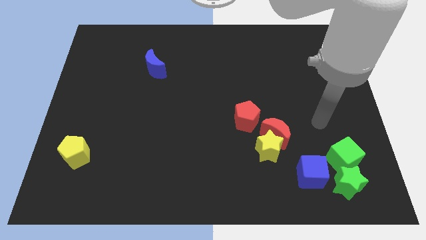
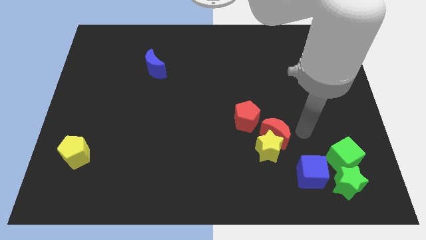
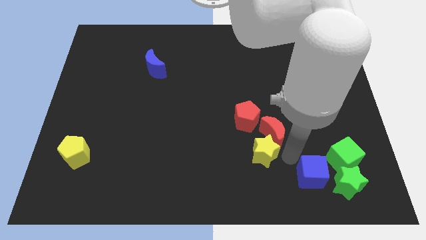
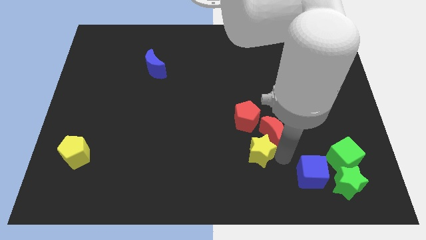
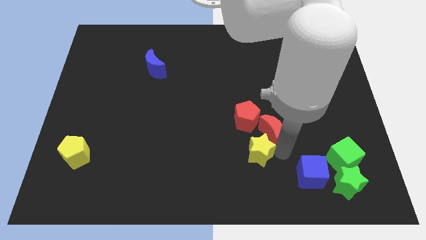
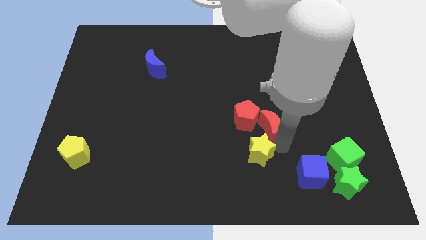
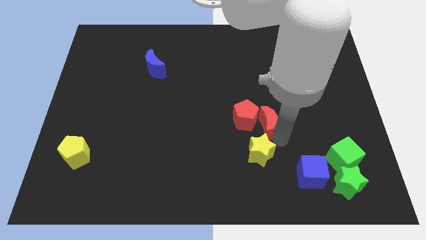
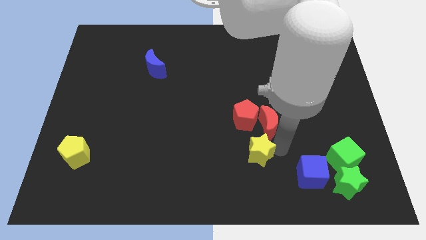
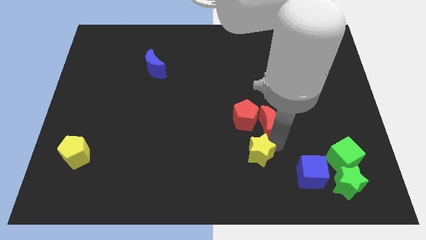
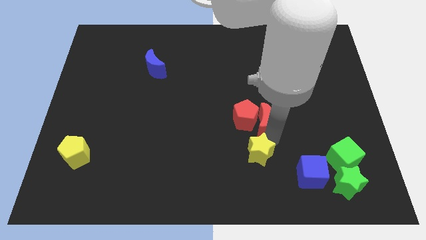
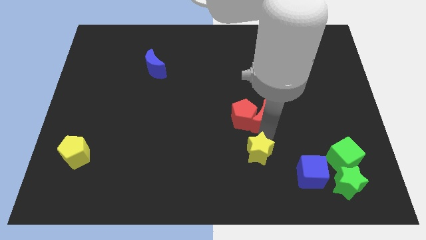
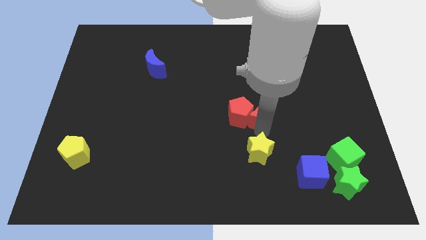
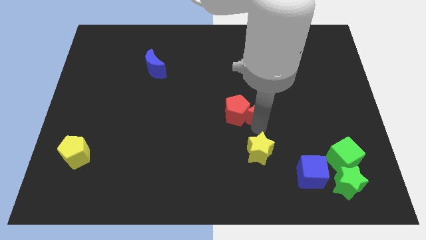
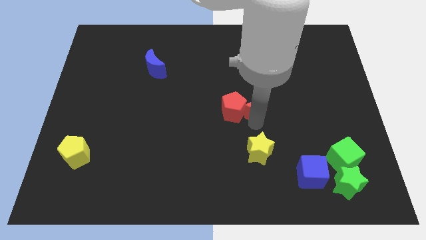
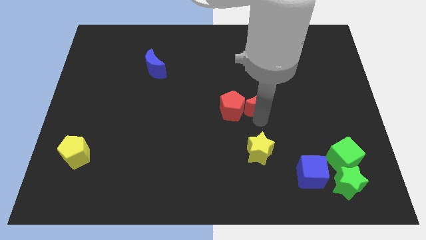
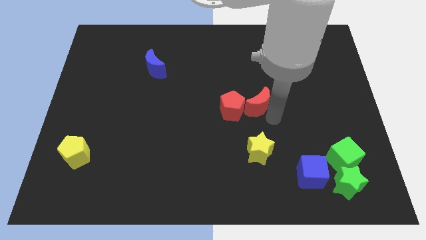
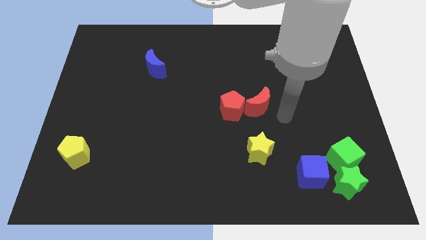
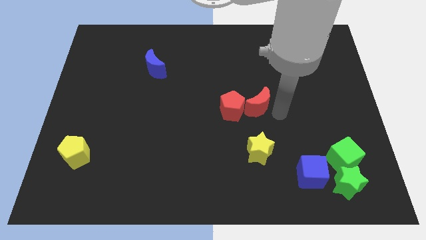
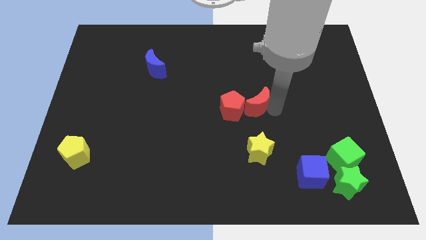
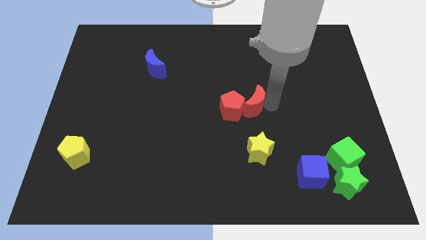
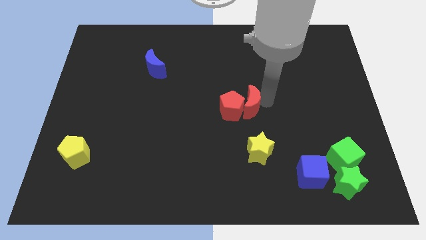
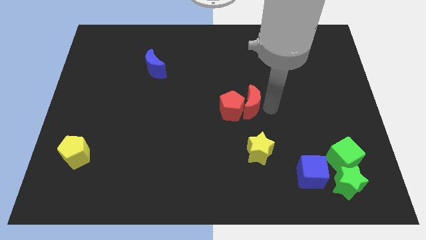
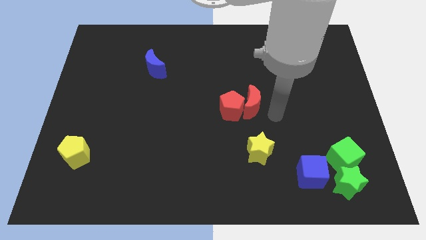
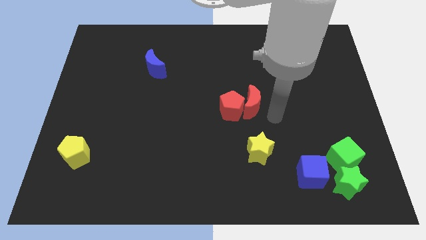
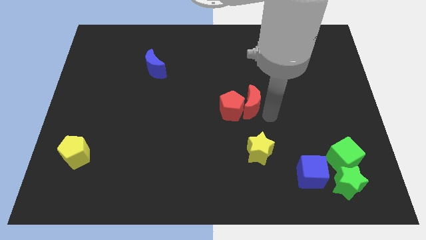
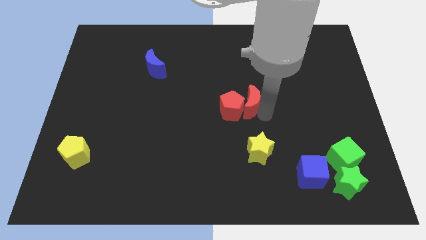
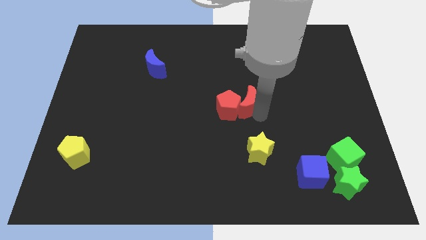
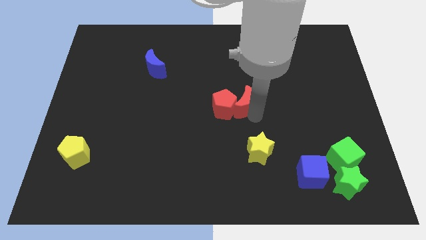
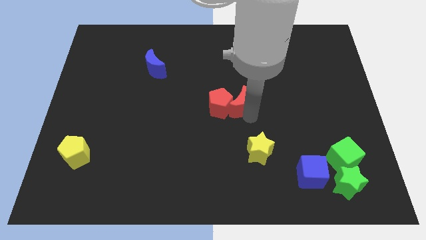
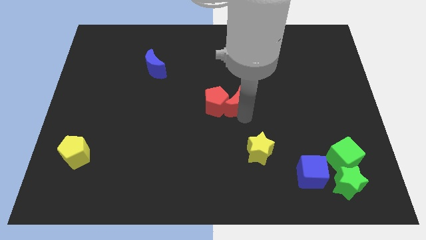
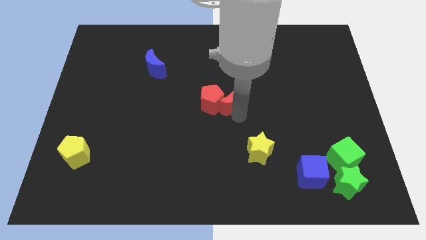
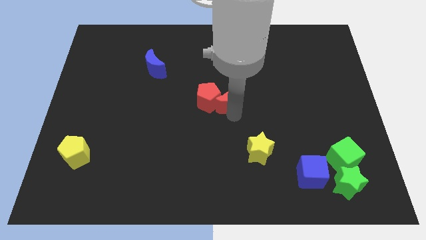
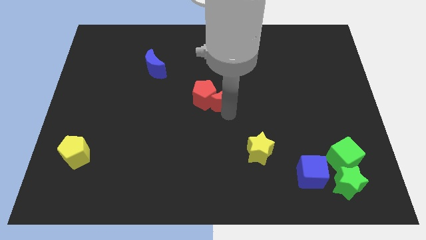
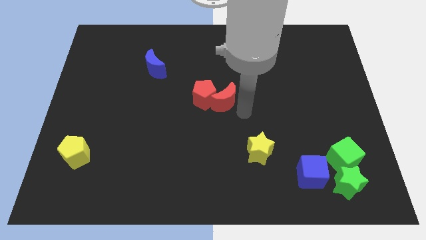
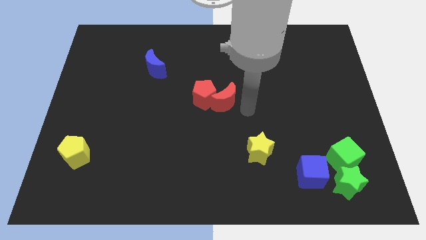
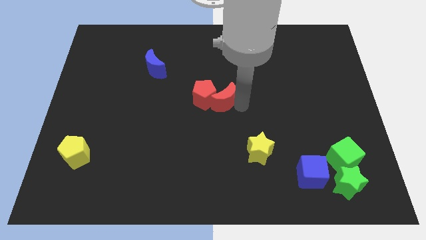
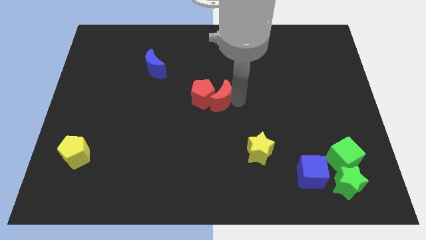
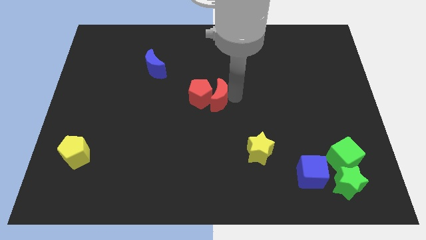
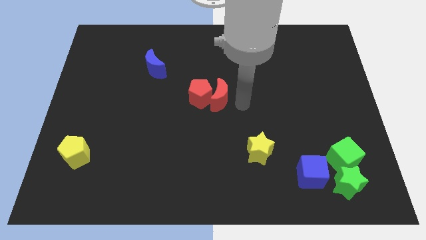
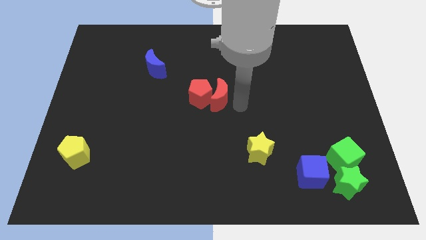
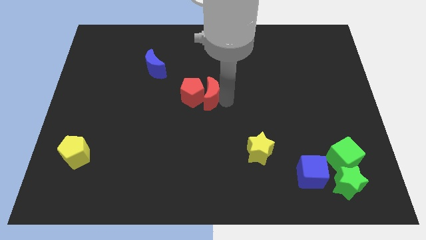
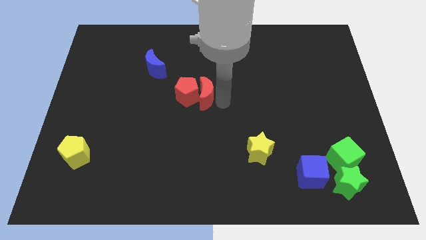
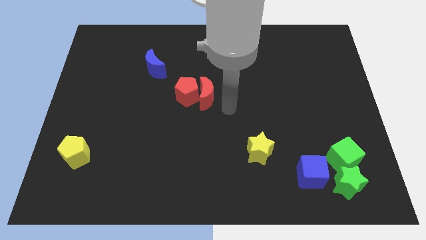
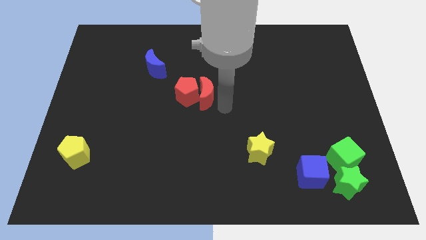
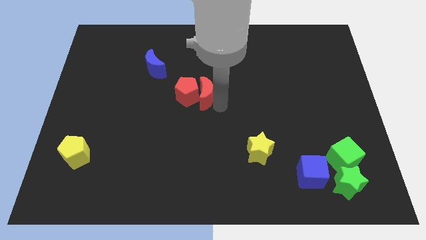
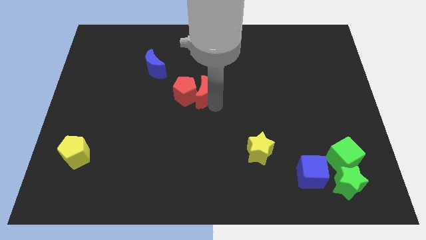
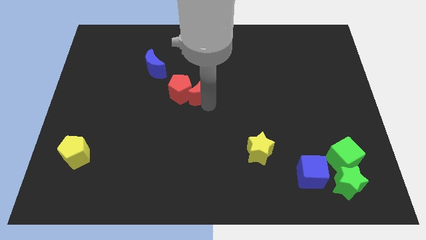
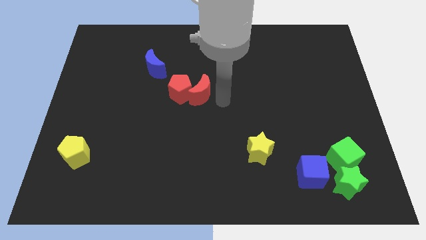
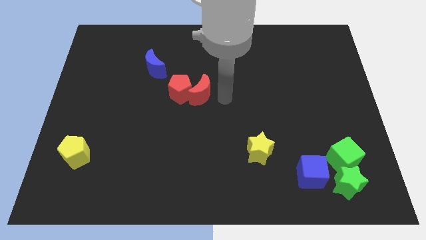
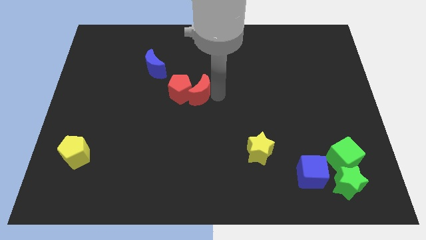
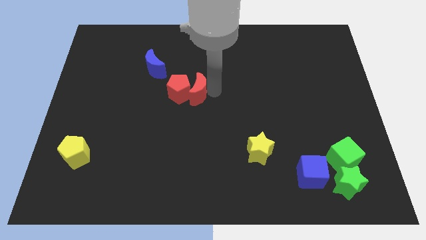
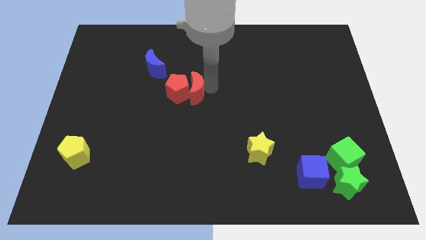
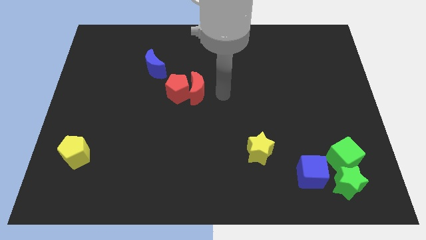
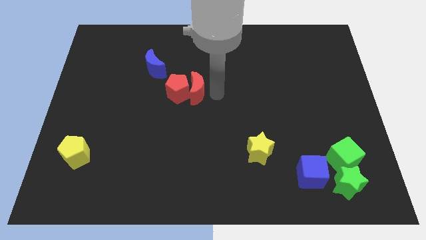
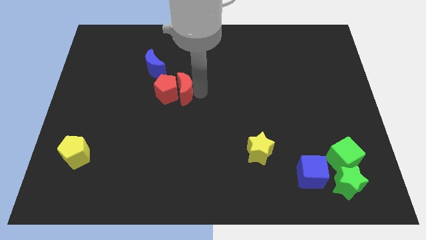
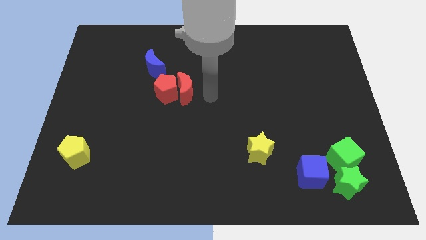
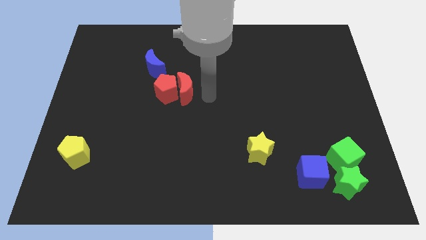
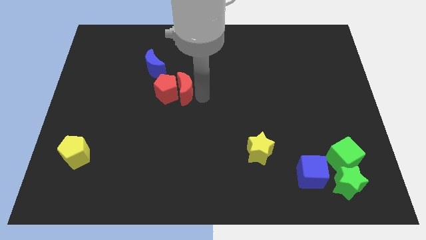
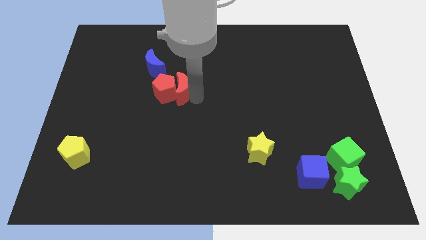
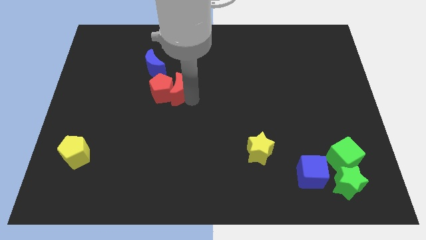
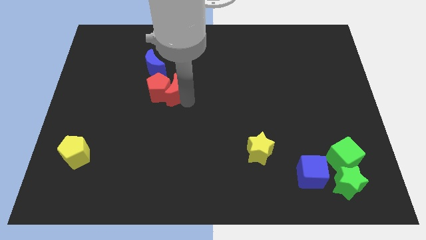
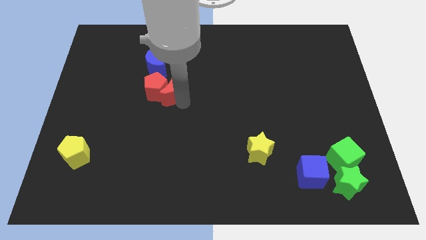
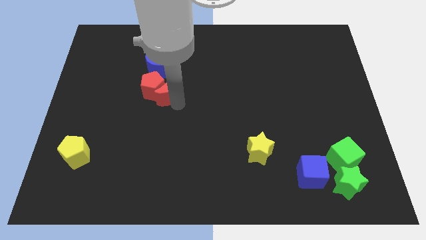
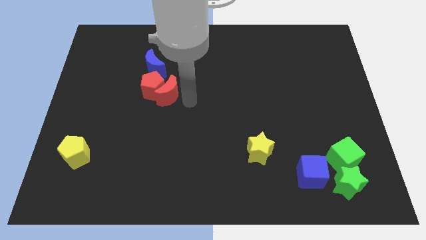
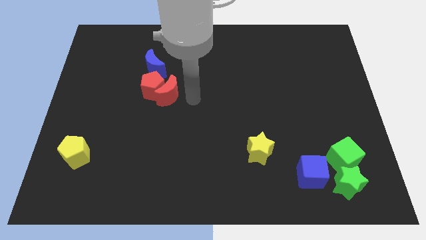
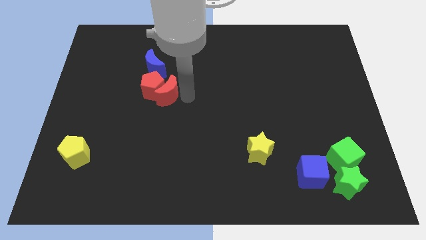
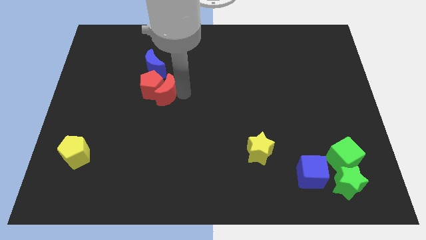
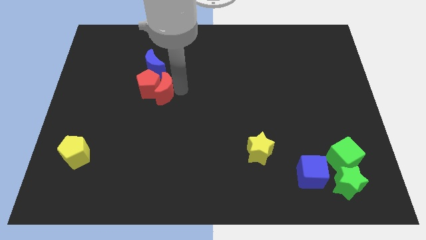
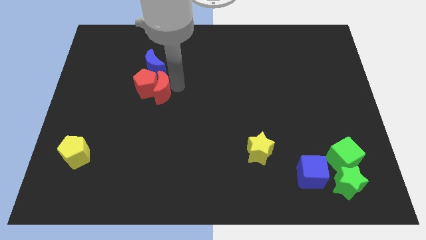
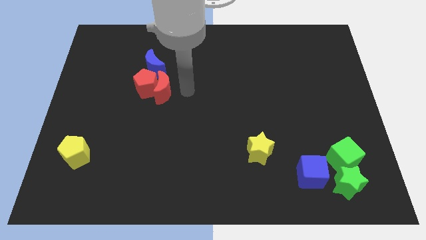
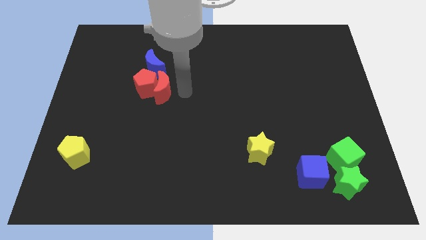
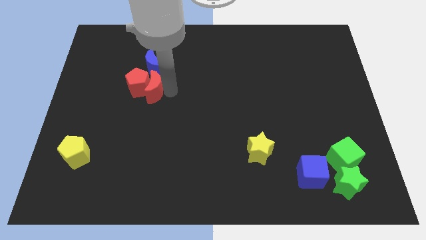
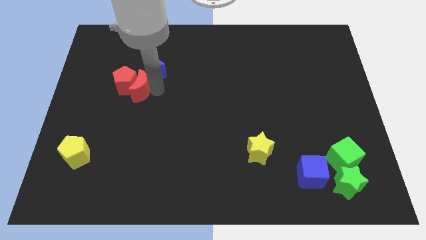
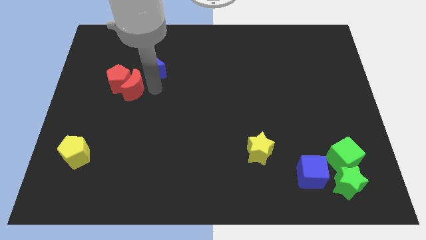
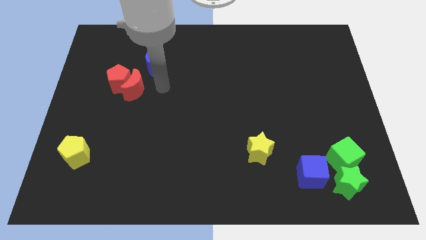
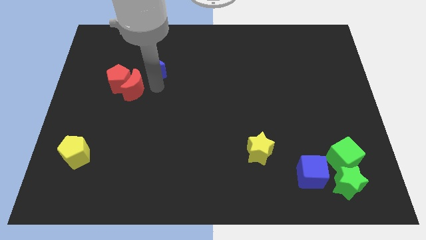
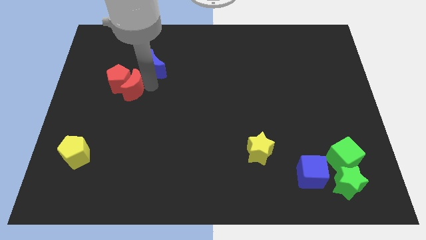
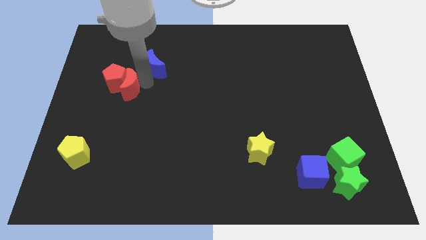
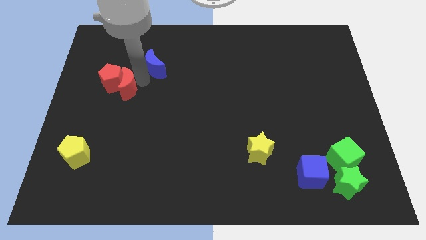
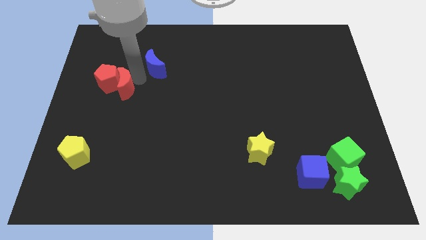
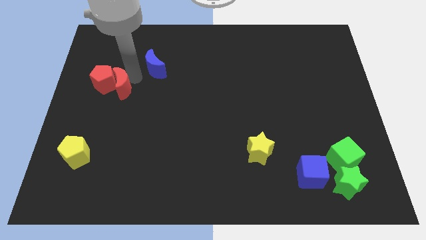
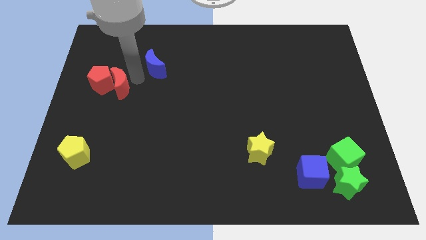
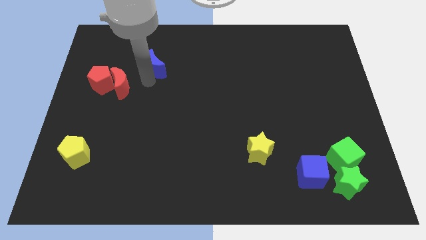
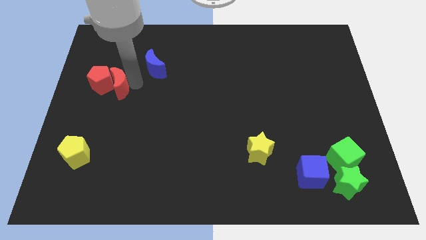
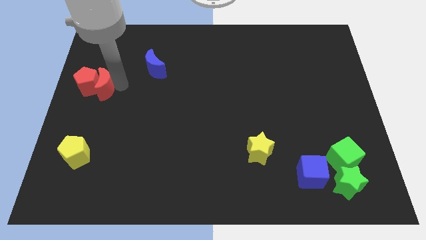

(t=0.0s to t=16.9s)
move the red moon to the left side of the board
